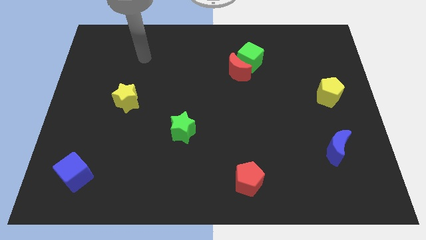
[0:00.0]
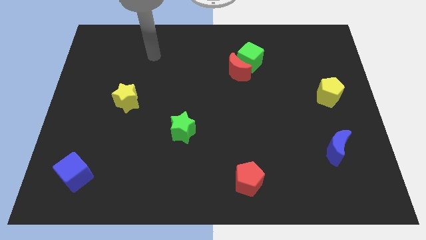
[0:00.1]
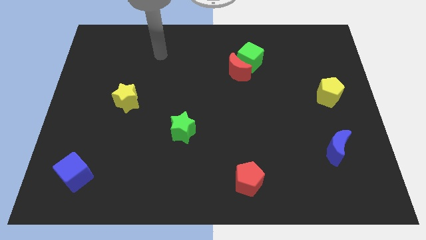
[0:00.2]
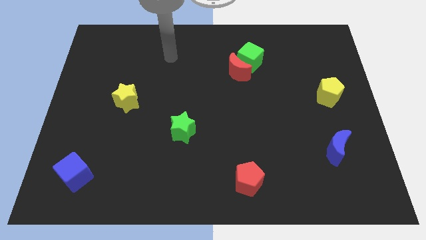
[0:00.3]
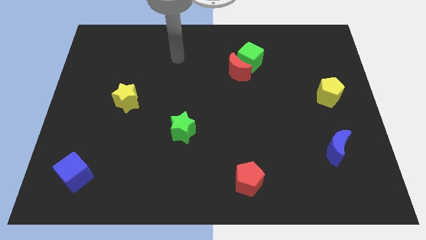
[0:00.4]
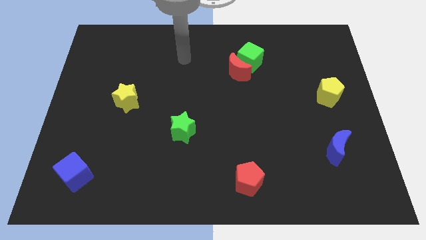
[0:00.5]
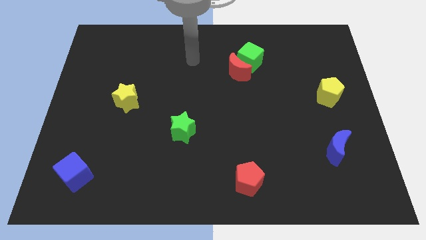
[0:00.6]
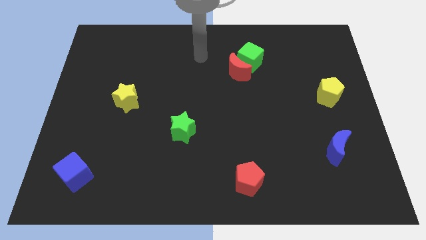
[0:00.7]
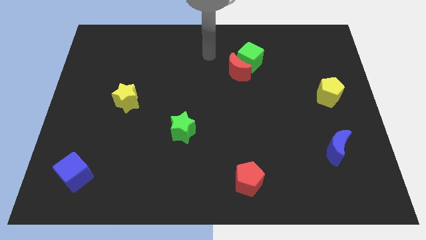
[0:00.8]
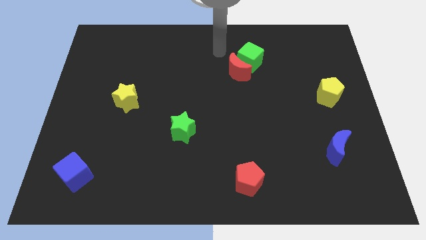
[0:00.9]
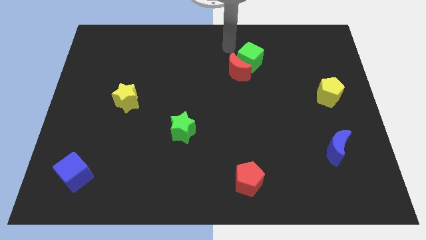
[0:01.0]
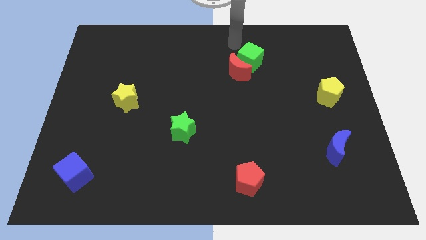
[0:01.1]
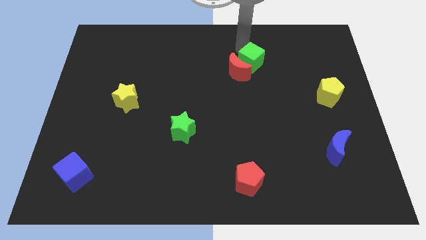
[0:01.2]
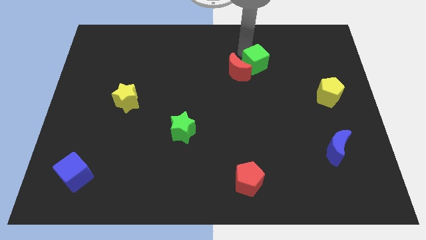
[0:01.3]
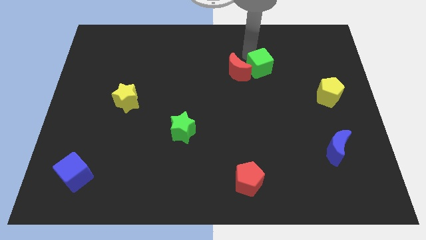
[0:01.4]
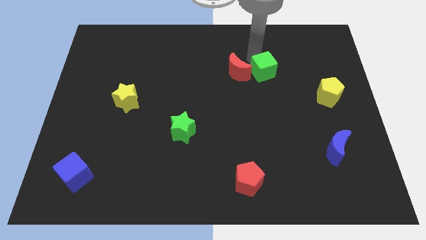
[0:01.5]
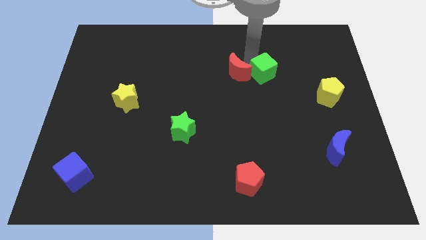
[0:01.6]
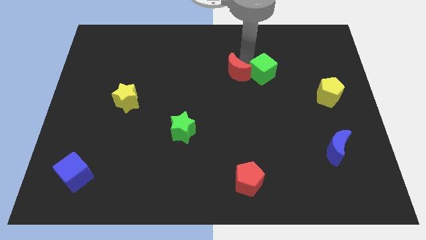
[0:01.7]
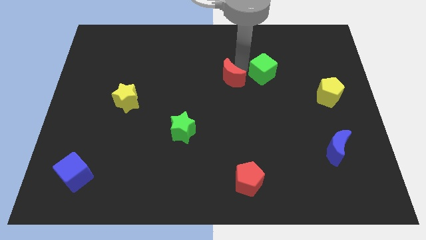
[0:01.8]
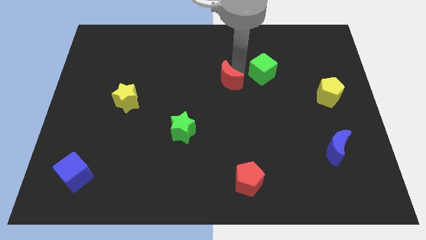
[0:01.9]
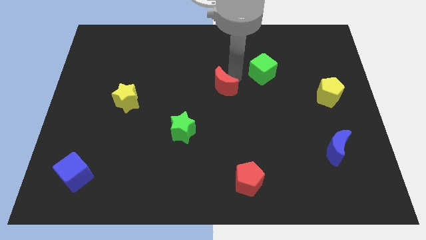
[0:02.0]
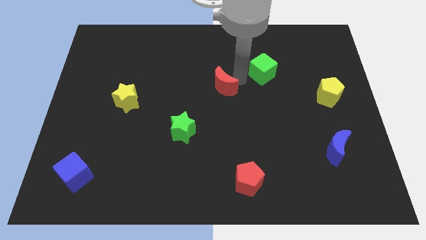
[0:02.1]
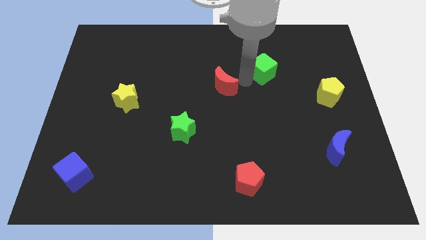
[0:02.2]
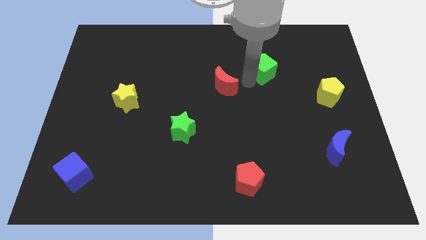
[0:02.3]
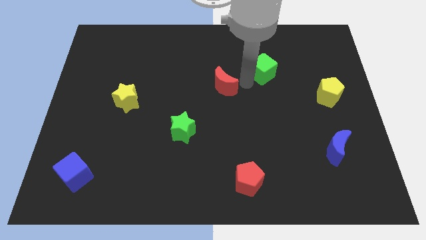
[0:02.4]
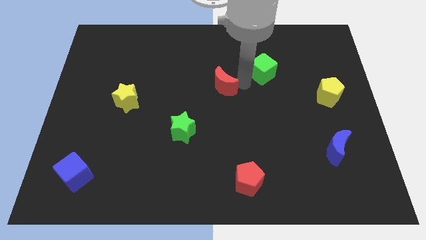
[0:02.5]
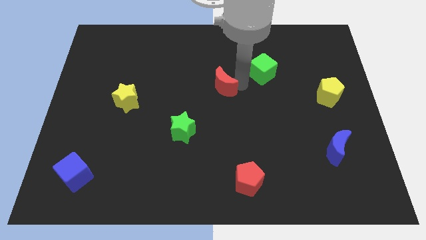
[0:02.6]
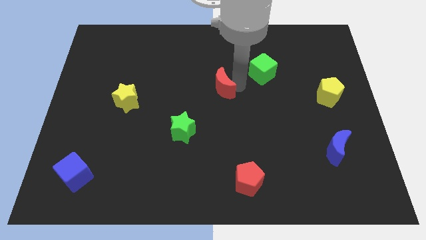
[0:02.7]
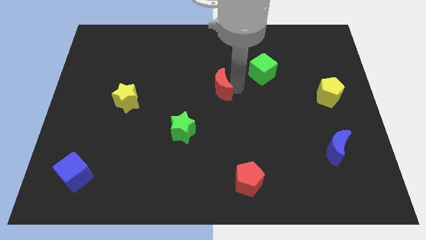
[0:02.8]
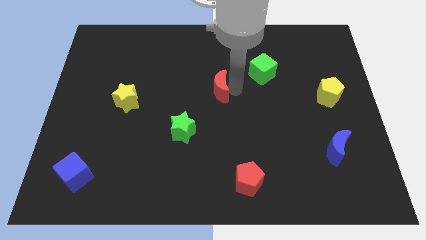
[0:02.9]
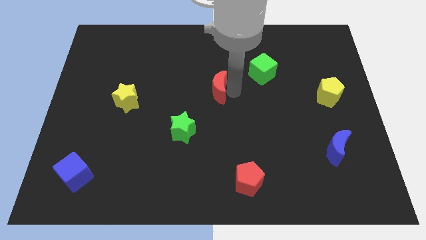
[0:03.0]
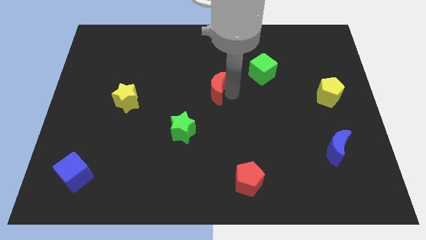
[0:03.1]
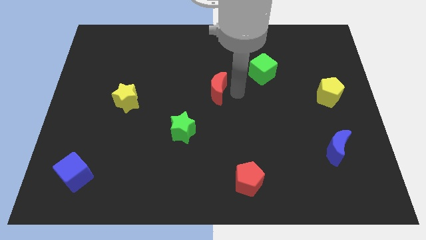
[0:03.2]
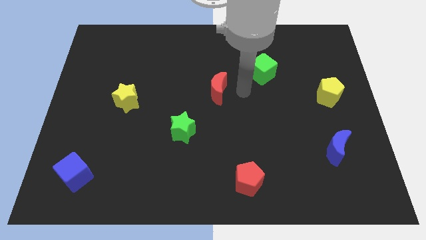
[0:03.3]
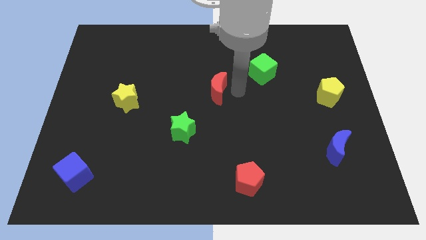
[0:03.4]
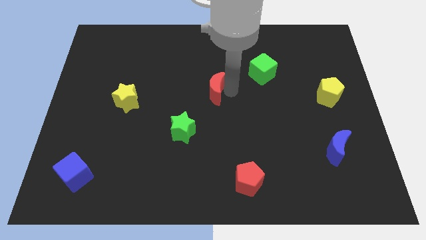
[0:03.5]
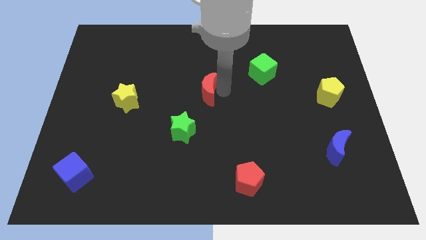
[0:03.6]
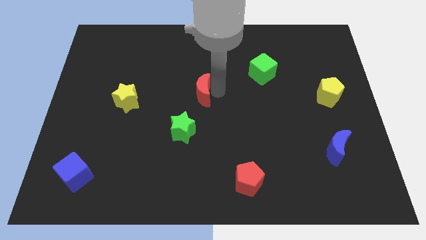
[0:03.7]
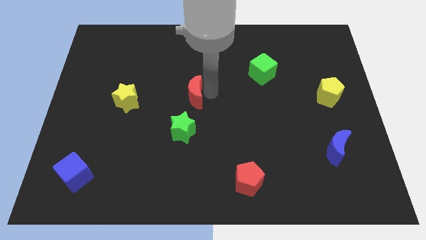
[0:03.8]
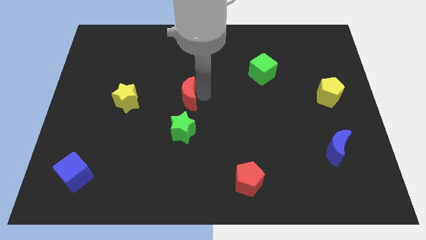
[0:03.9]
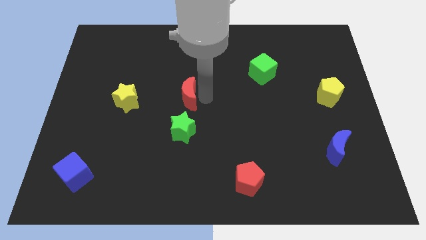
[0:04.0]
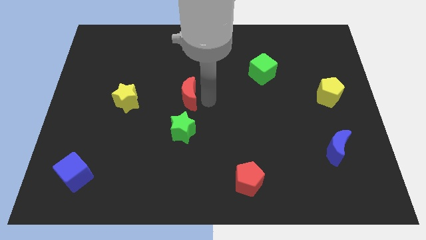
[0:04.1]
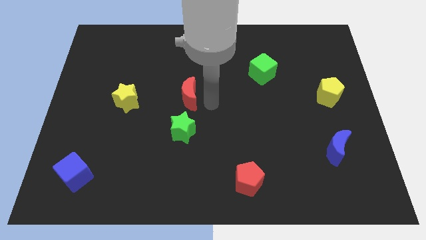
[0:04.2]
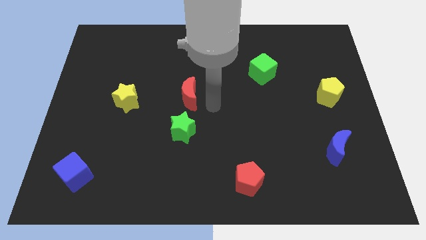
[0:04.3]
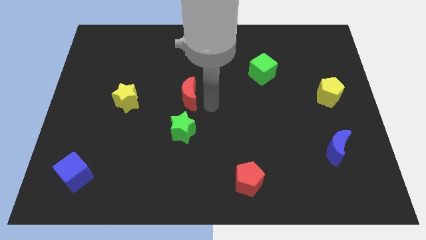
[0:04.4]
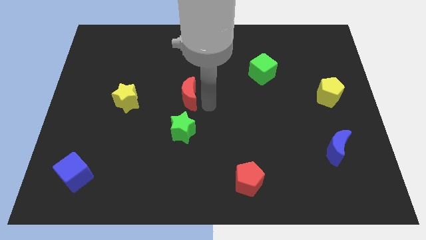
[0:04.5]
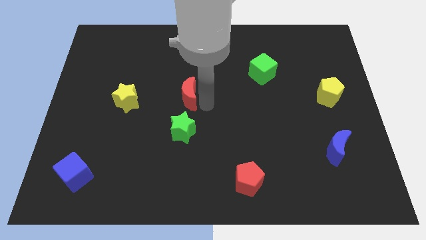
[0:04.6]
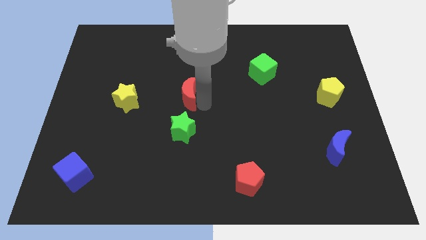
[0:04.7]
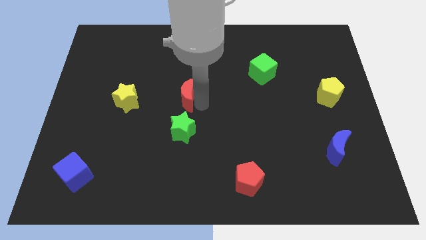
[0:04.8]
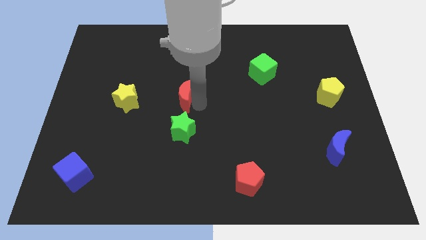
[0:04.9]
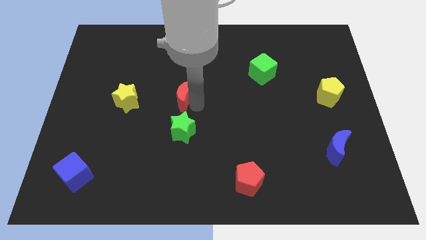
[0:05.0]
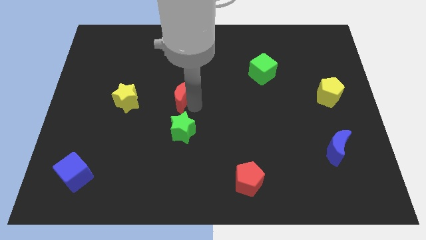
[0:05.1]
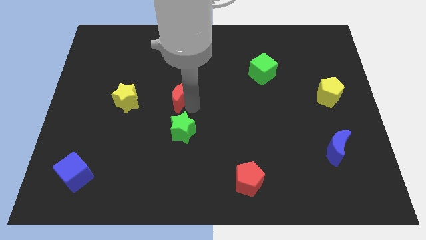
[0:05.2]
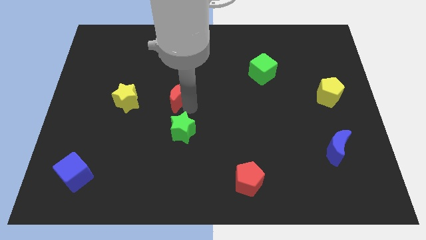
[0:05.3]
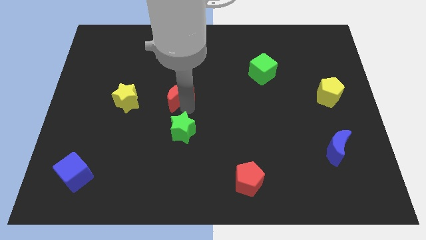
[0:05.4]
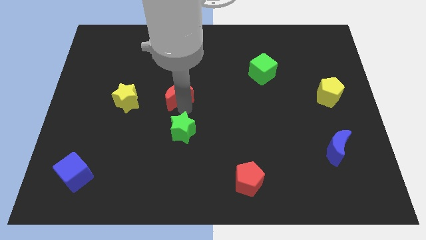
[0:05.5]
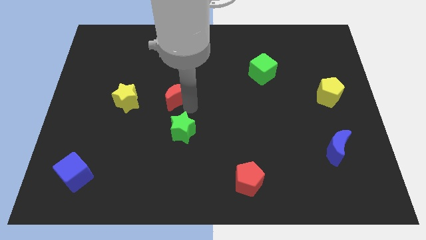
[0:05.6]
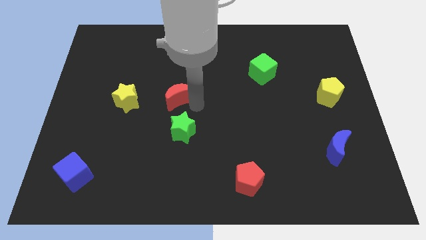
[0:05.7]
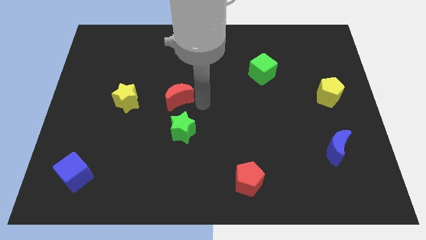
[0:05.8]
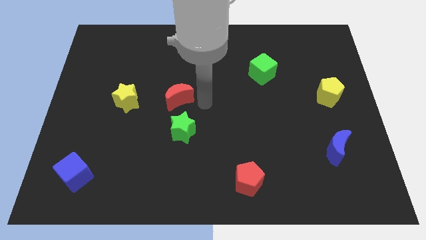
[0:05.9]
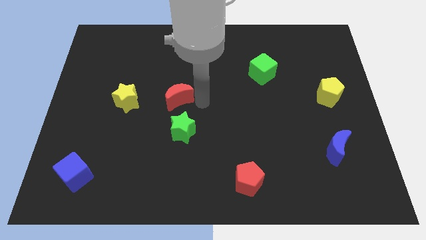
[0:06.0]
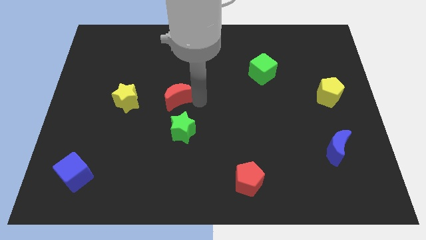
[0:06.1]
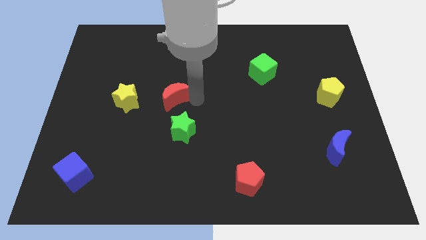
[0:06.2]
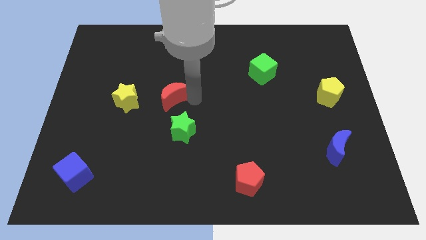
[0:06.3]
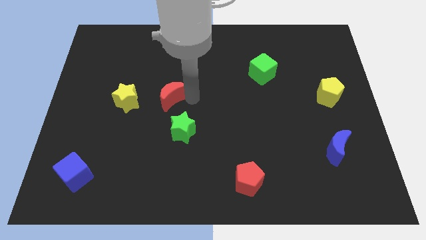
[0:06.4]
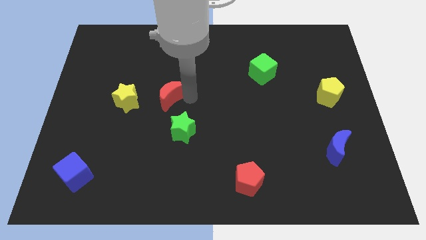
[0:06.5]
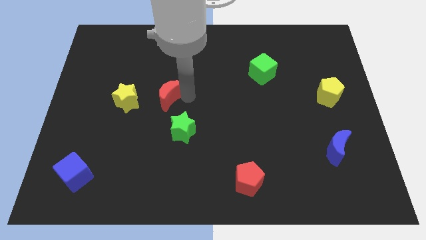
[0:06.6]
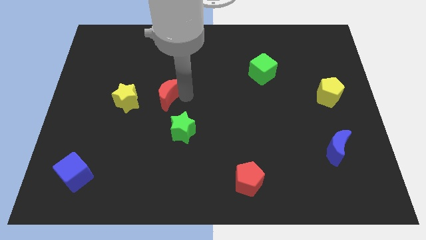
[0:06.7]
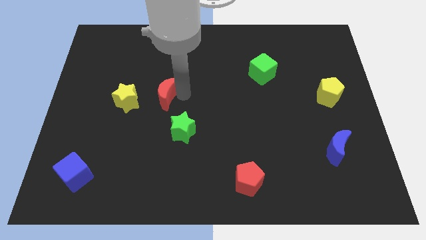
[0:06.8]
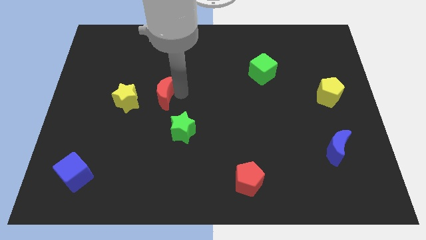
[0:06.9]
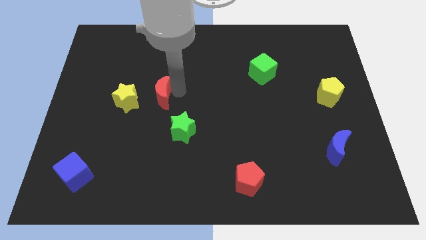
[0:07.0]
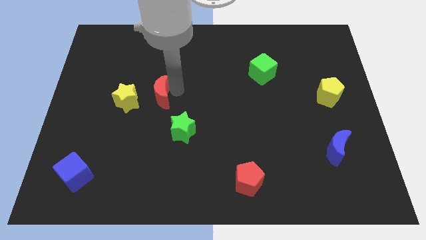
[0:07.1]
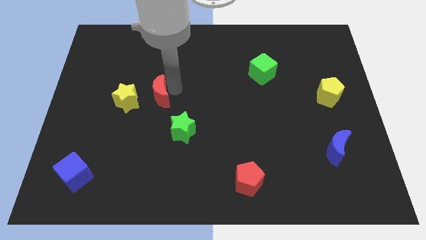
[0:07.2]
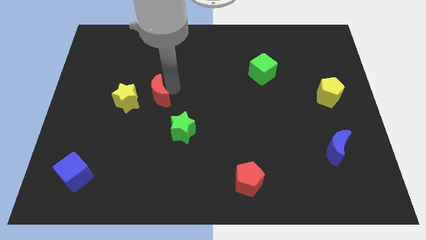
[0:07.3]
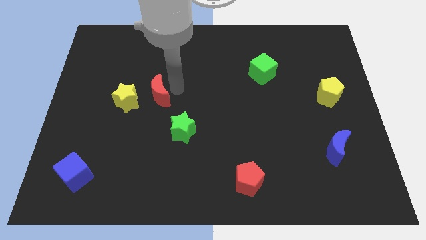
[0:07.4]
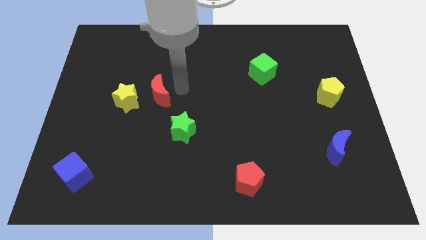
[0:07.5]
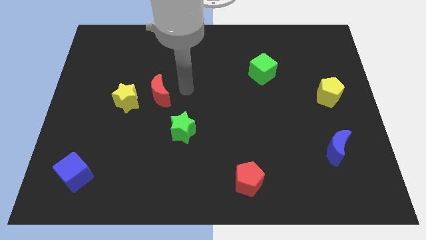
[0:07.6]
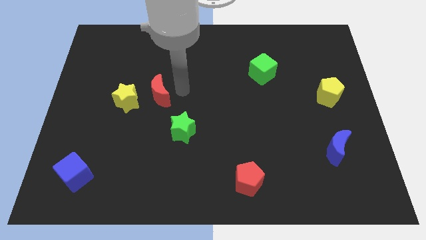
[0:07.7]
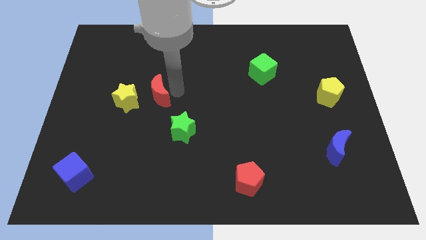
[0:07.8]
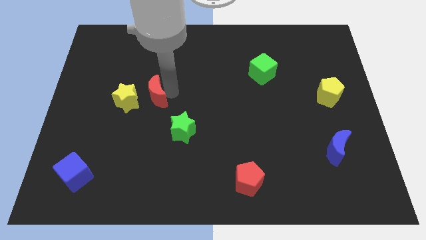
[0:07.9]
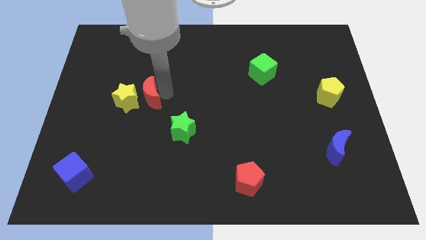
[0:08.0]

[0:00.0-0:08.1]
slide the red moon towards the yellow star

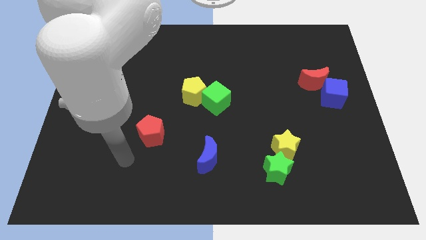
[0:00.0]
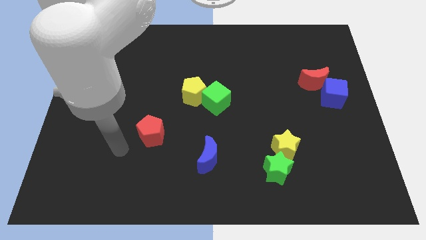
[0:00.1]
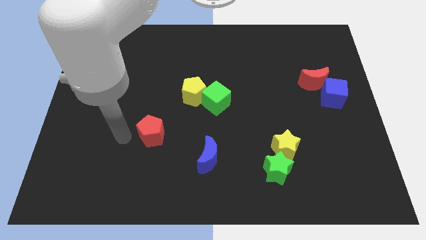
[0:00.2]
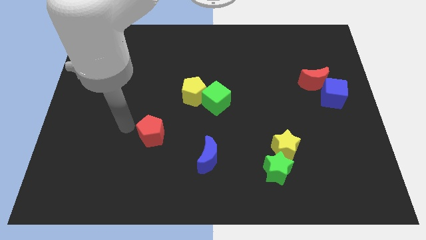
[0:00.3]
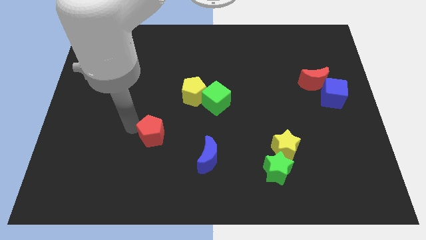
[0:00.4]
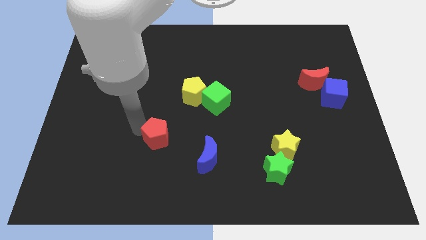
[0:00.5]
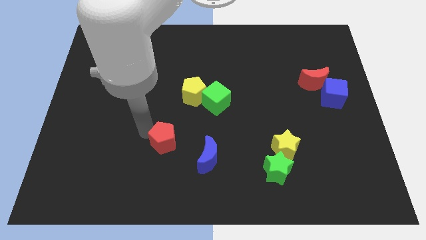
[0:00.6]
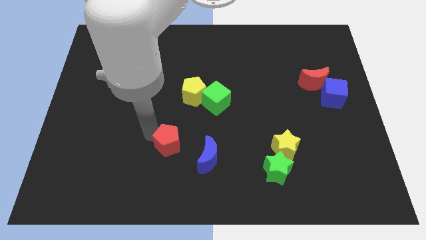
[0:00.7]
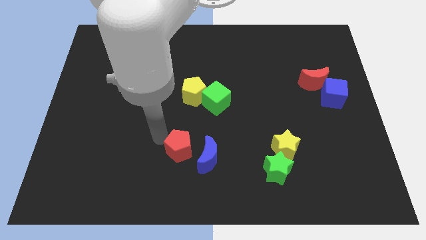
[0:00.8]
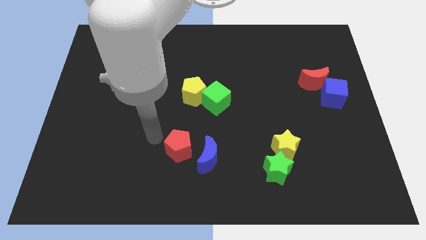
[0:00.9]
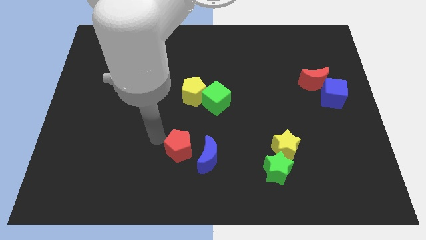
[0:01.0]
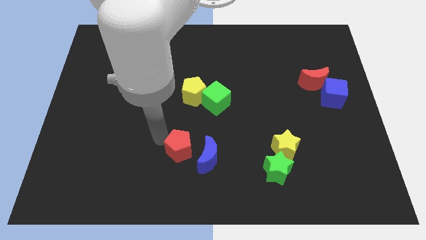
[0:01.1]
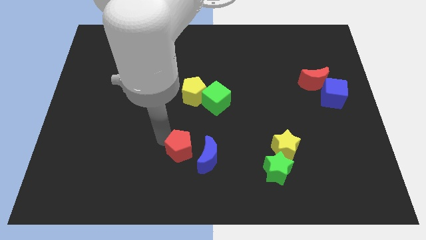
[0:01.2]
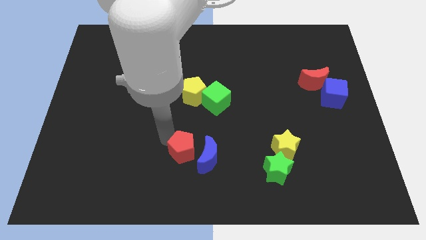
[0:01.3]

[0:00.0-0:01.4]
slide the red pentagon to the blue moon
